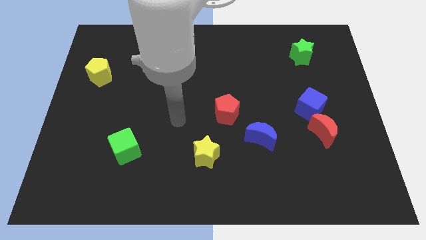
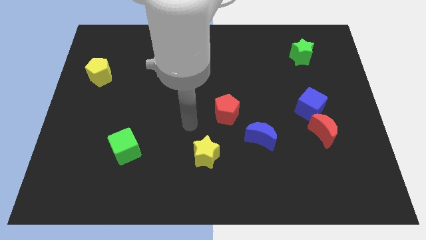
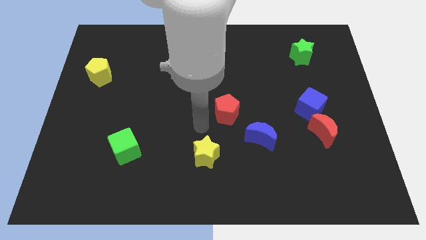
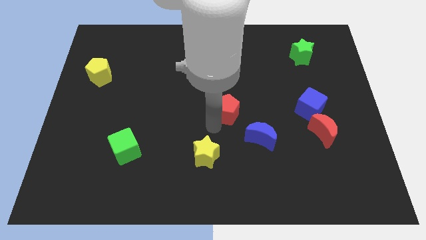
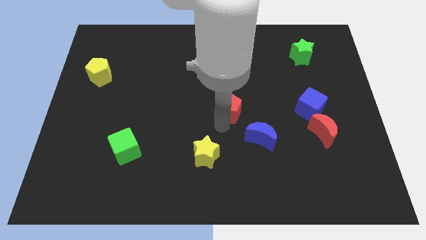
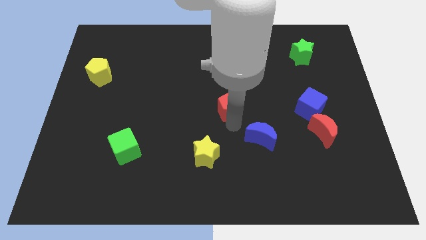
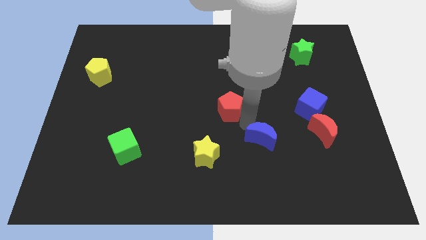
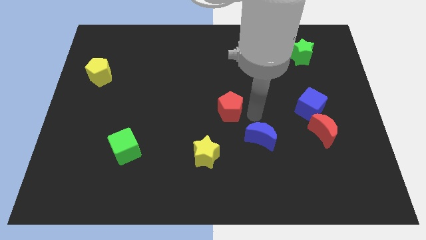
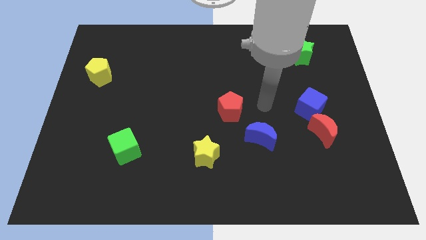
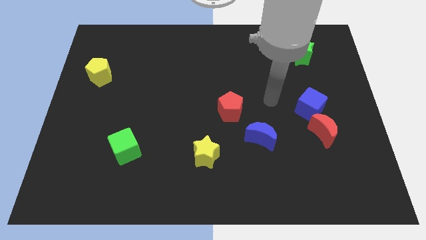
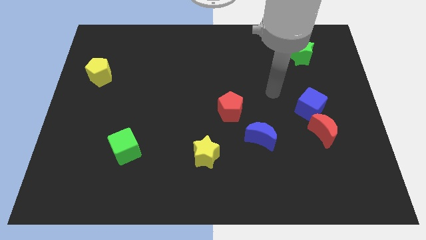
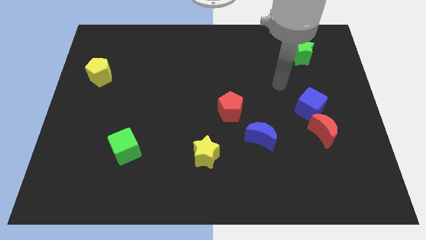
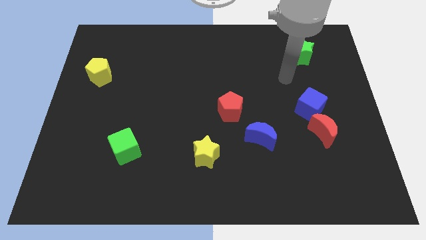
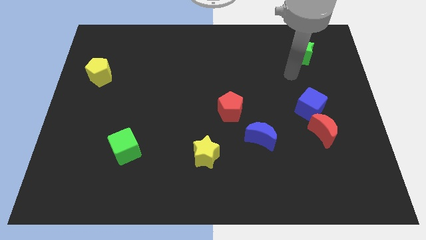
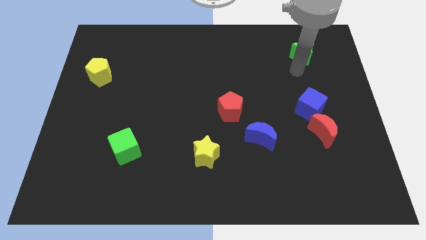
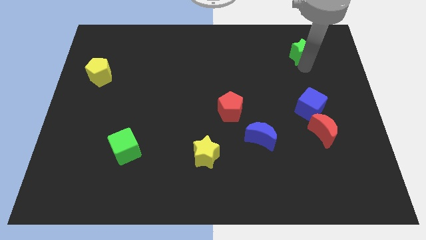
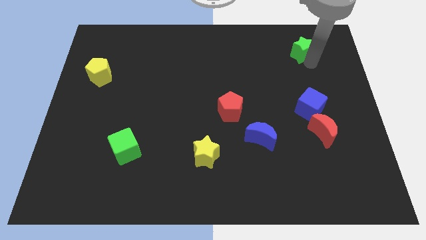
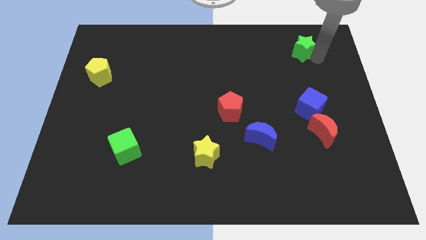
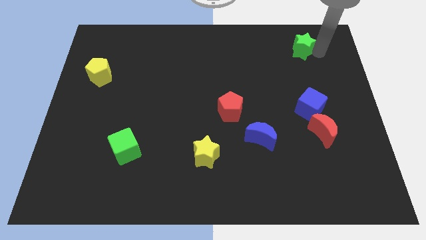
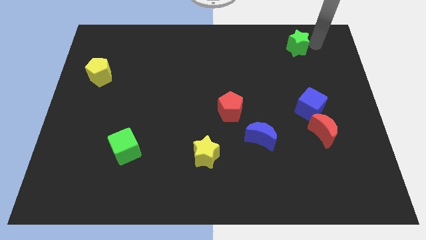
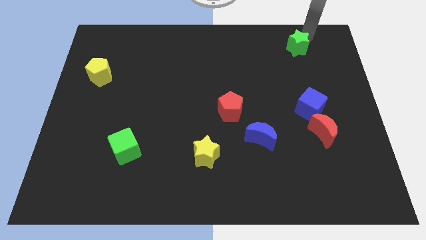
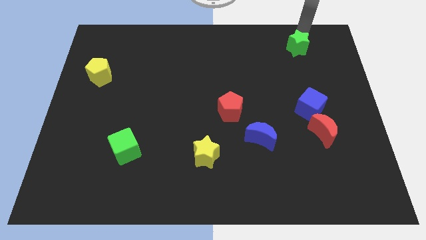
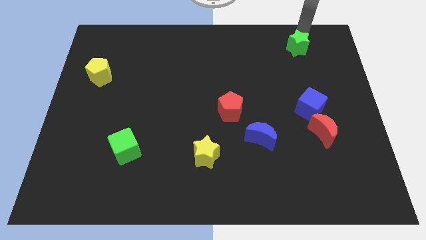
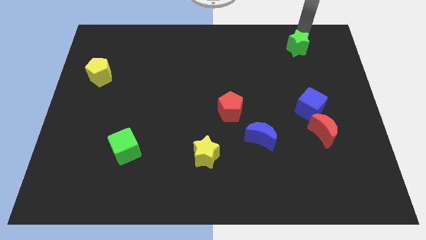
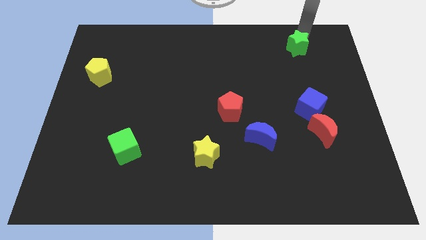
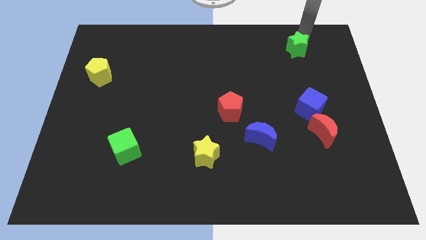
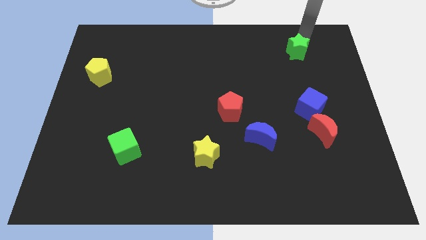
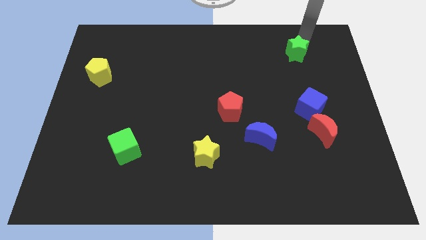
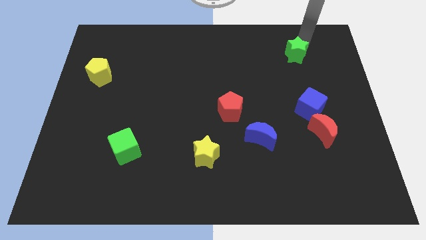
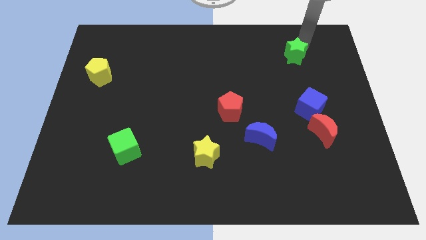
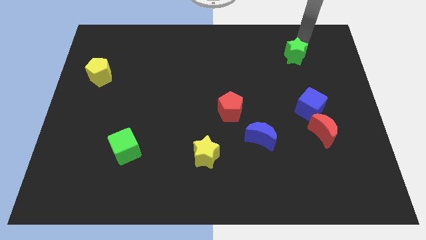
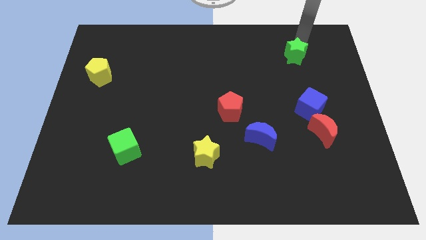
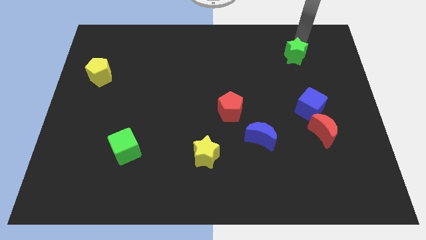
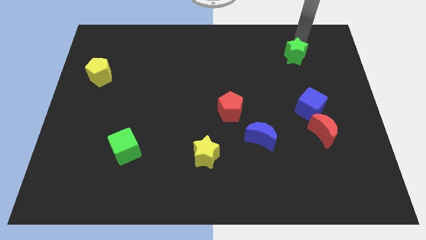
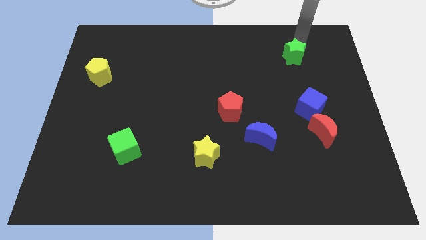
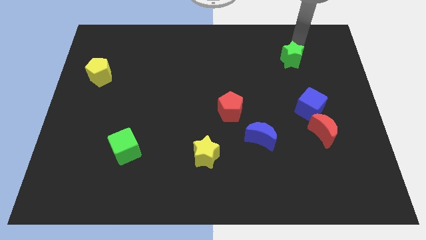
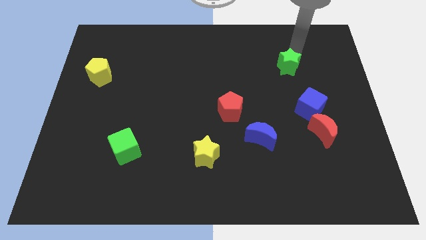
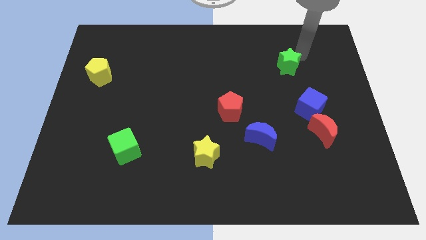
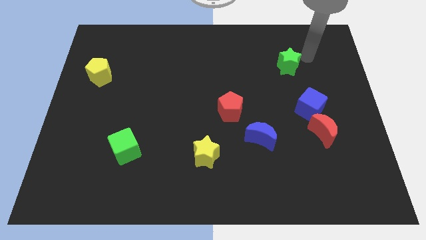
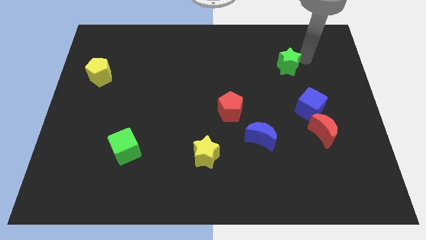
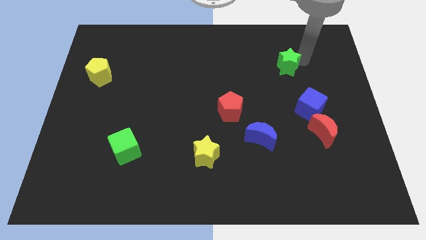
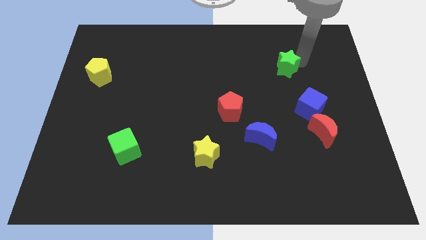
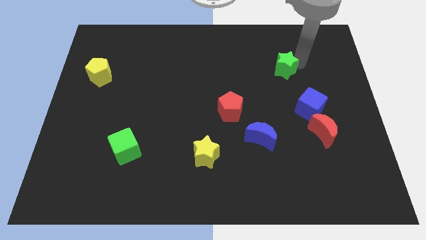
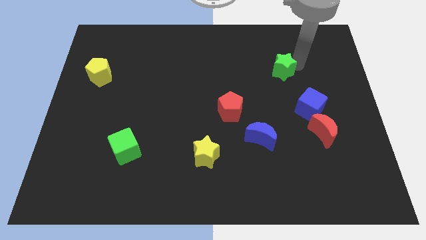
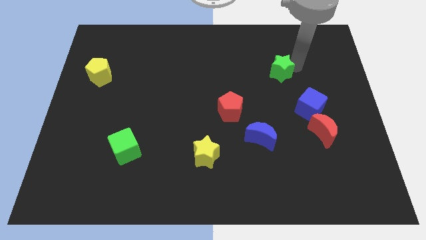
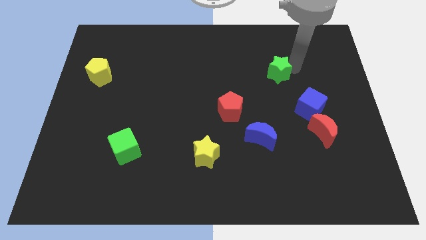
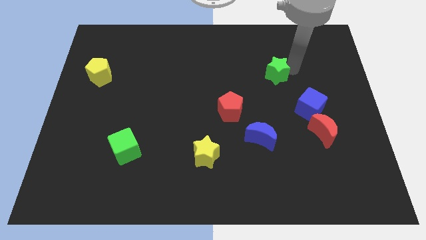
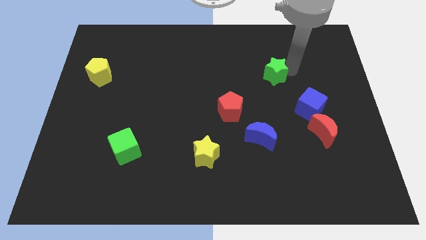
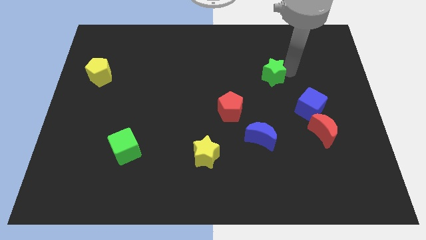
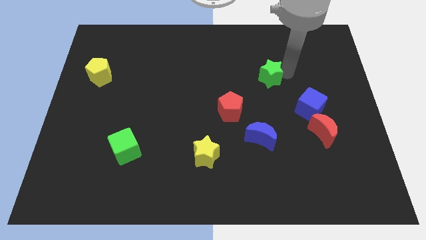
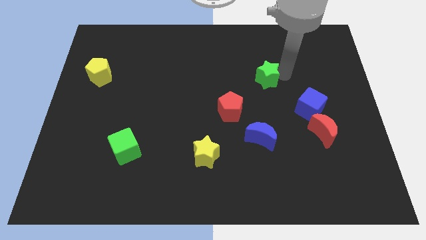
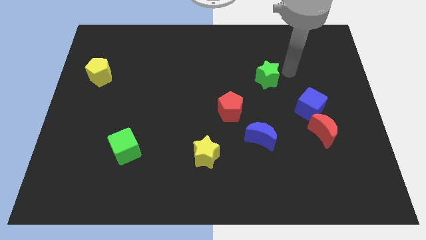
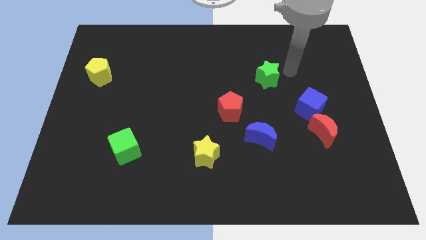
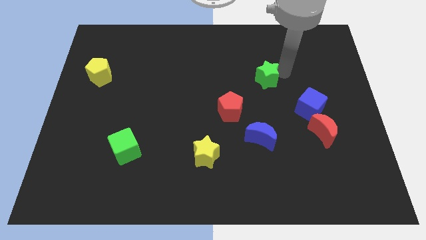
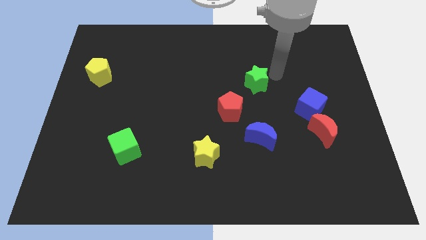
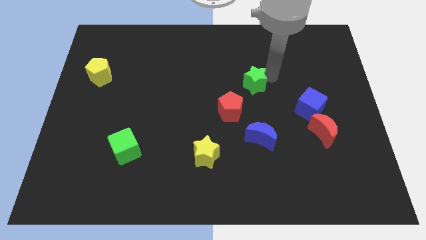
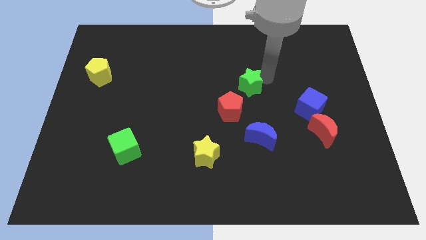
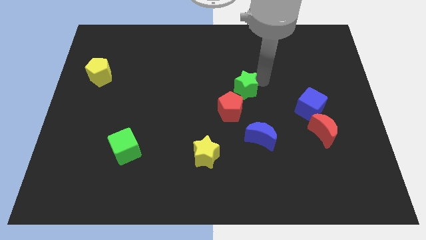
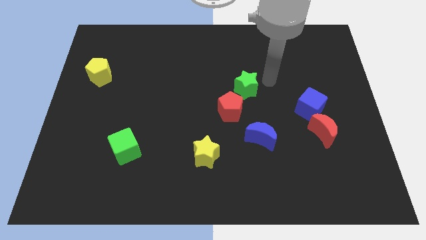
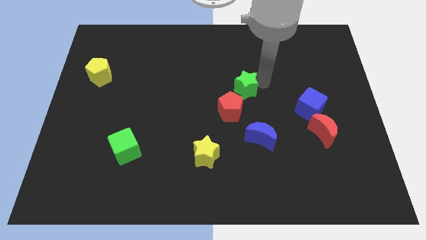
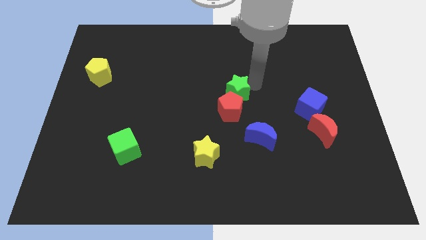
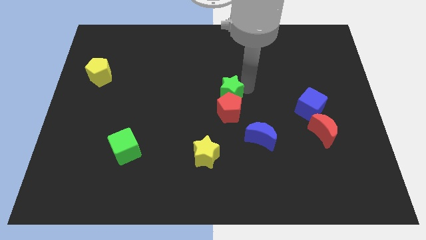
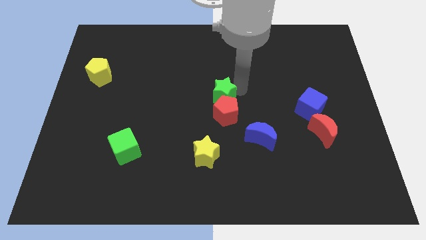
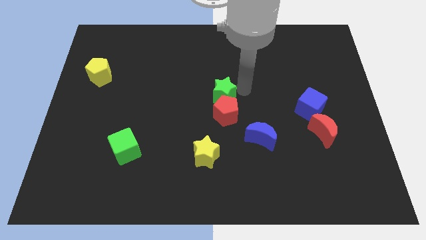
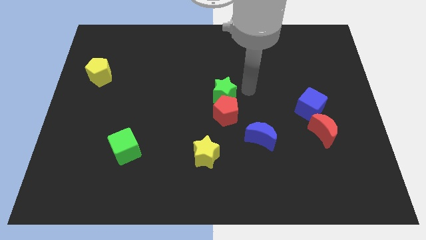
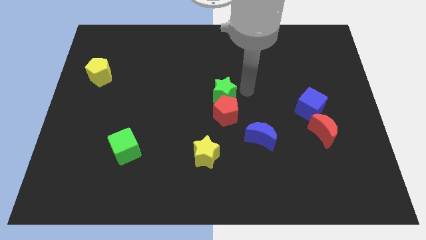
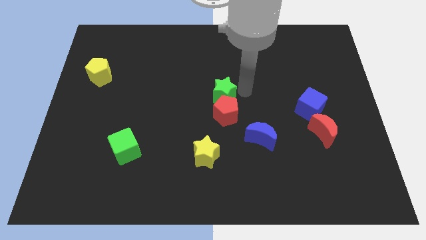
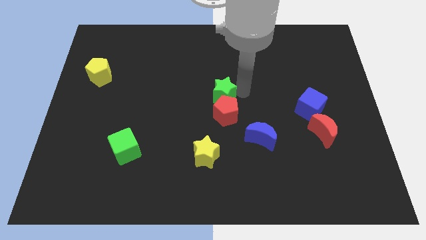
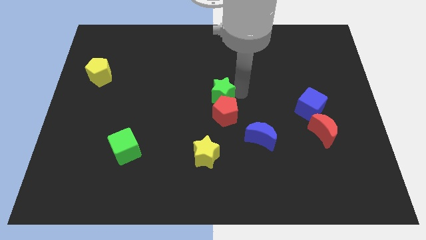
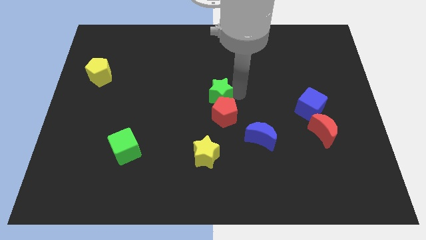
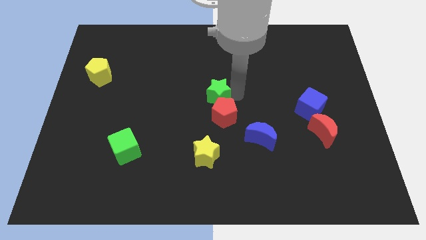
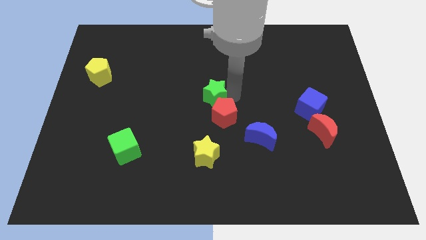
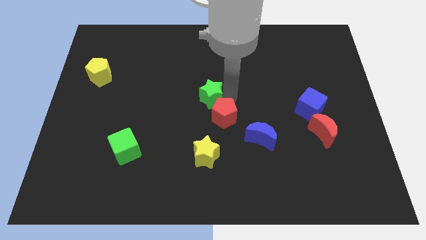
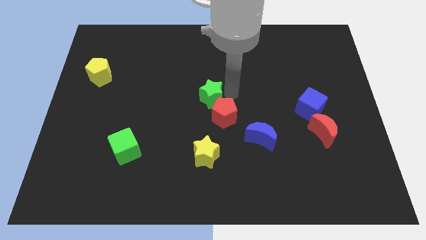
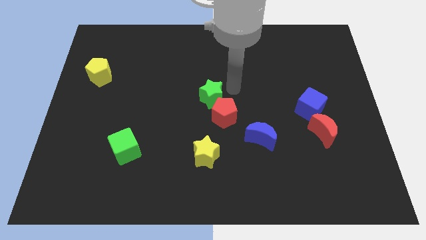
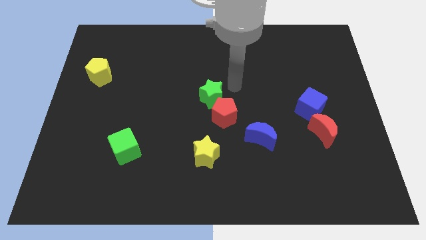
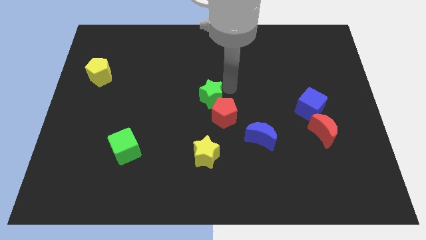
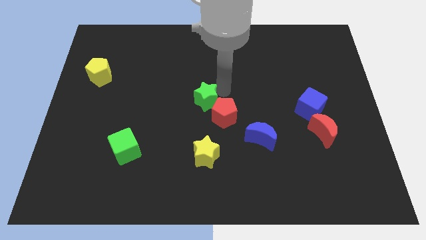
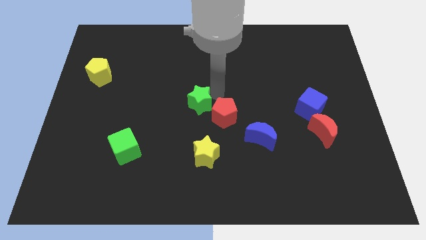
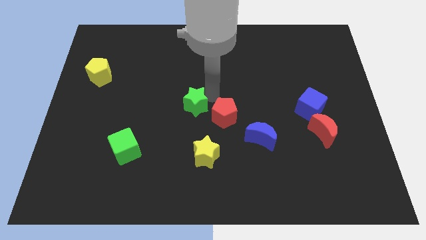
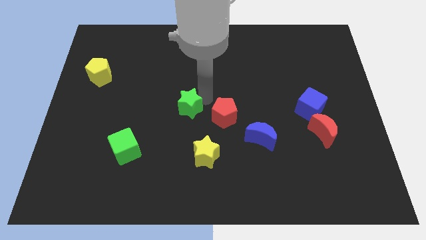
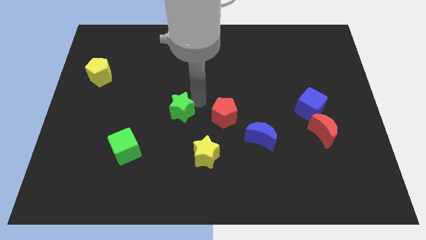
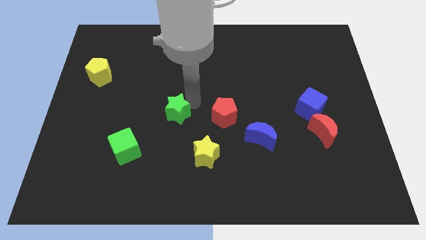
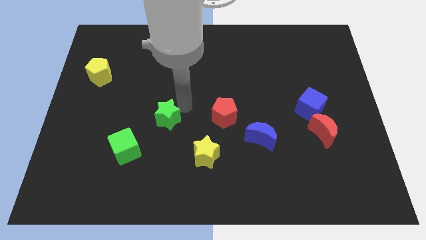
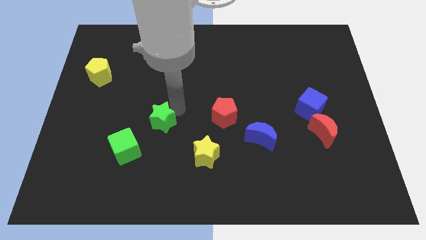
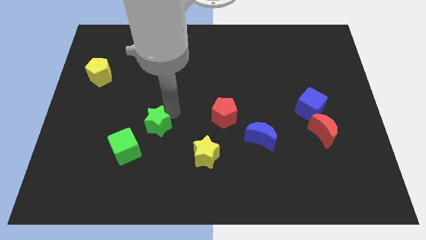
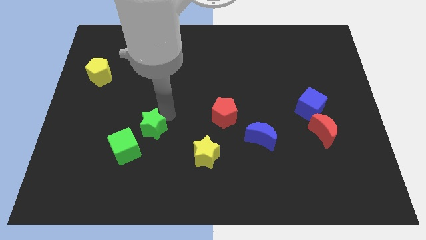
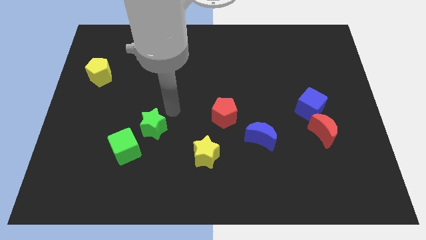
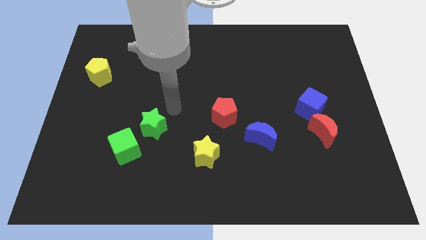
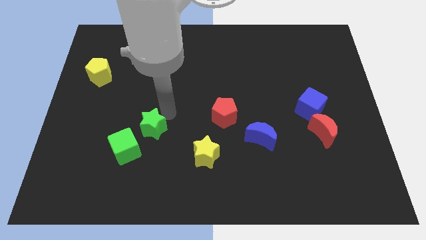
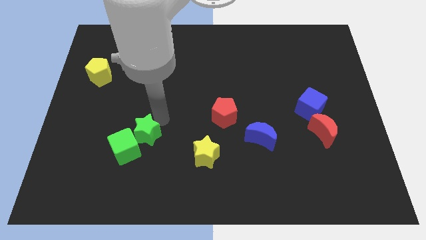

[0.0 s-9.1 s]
move the green star to the green cube
